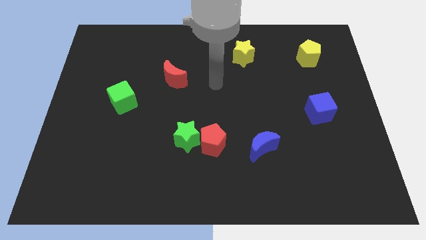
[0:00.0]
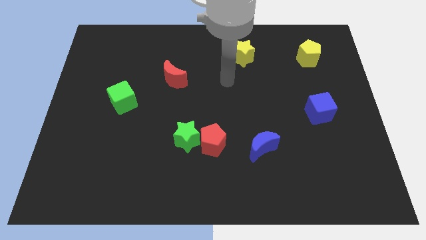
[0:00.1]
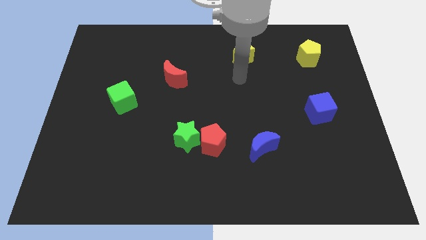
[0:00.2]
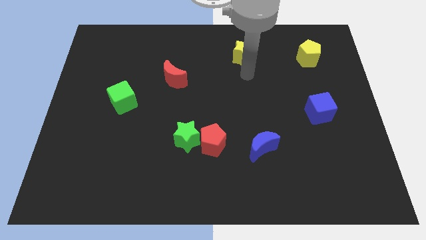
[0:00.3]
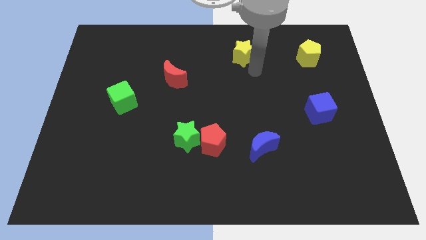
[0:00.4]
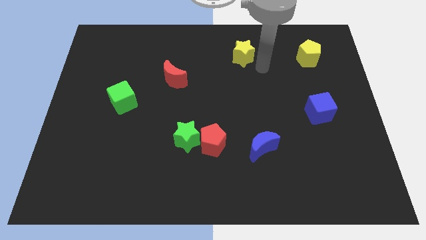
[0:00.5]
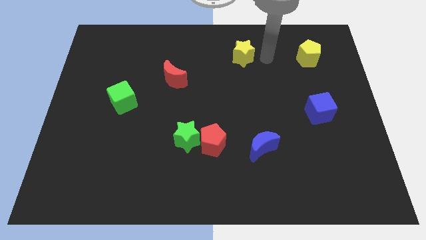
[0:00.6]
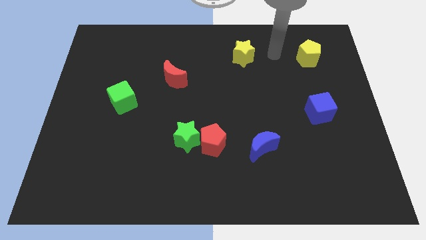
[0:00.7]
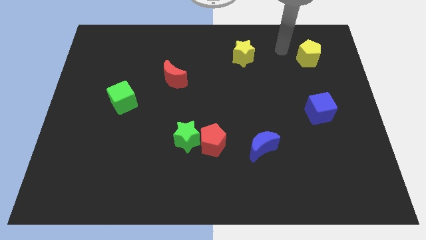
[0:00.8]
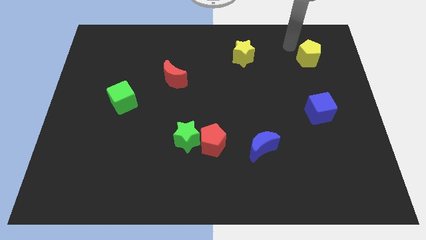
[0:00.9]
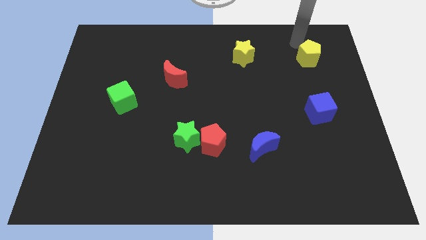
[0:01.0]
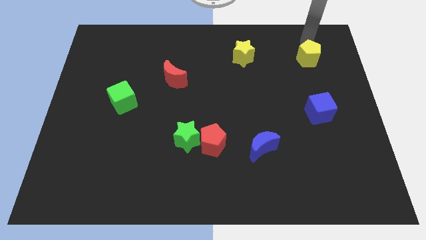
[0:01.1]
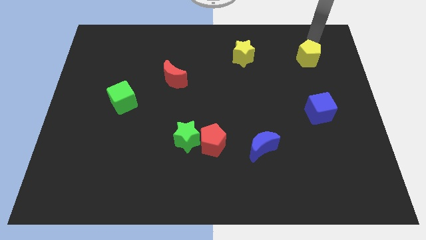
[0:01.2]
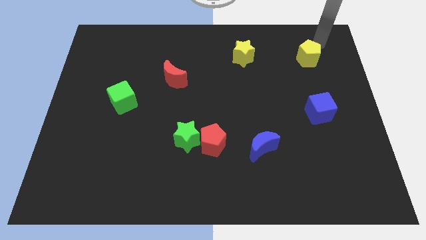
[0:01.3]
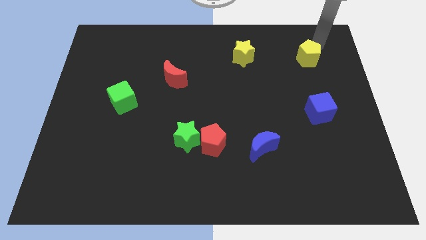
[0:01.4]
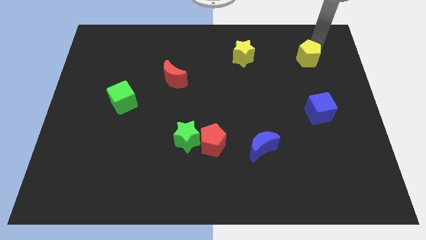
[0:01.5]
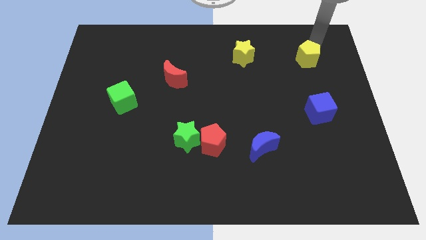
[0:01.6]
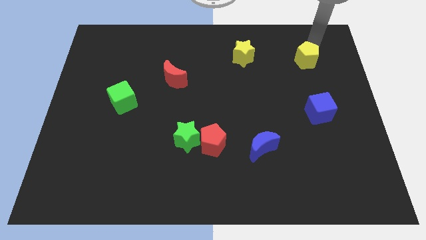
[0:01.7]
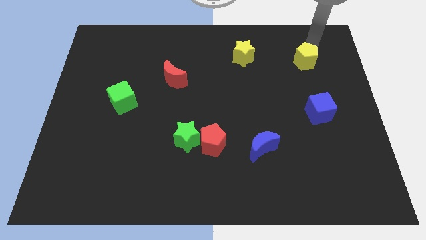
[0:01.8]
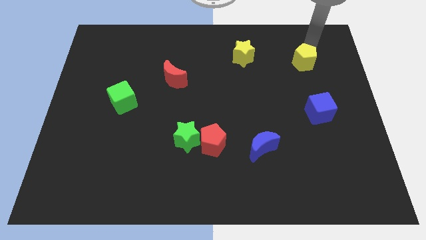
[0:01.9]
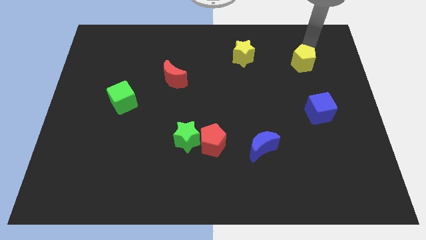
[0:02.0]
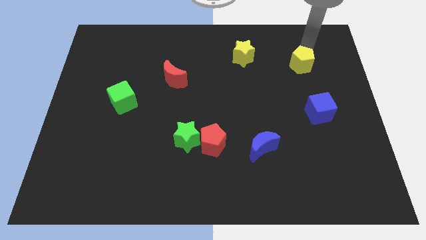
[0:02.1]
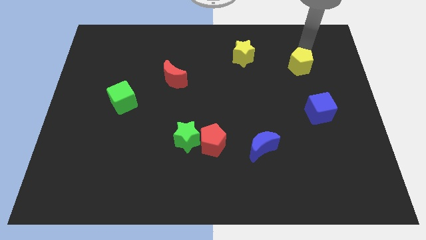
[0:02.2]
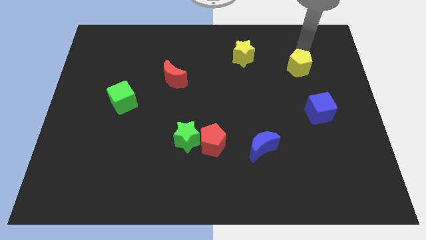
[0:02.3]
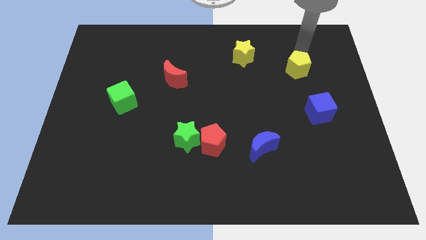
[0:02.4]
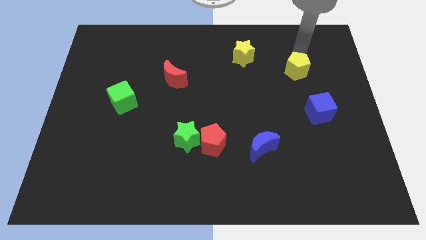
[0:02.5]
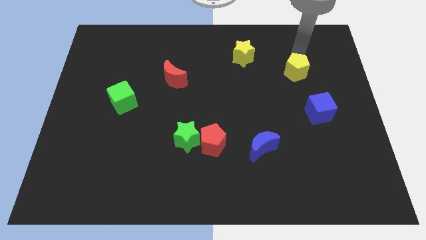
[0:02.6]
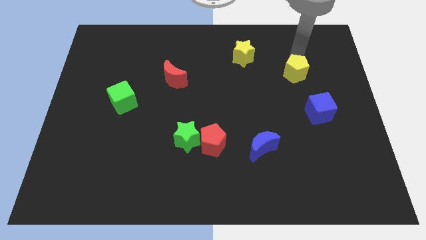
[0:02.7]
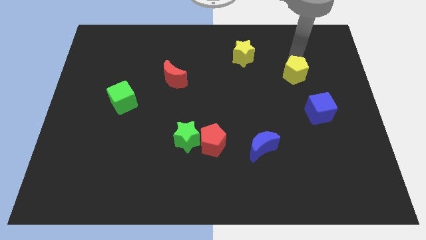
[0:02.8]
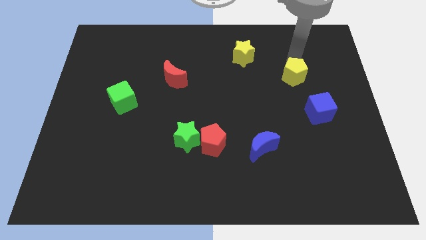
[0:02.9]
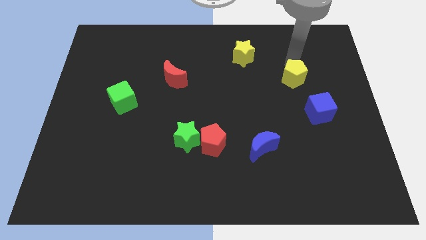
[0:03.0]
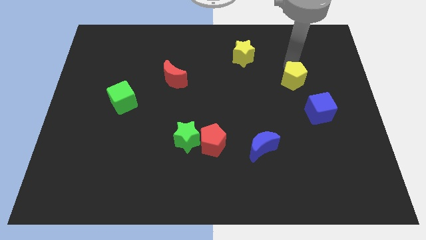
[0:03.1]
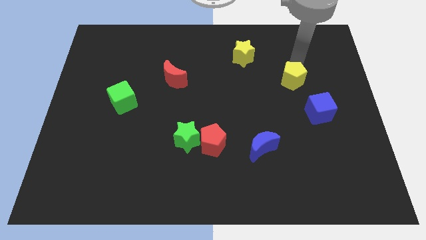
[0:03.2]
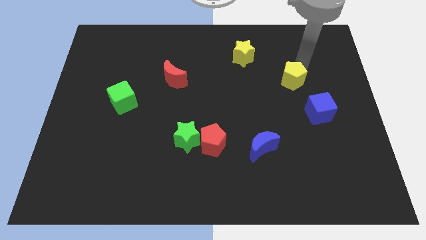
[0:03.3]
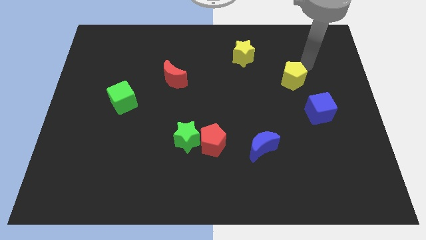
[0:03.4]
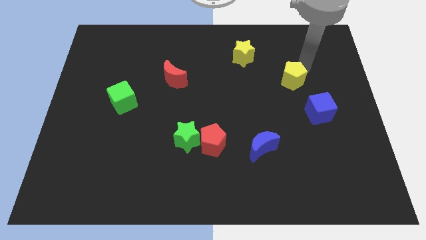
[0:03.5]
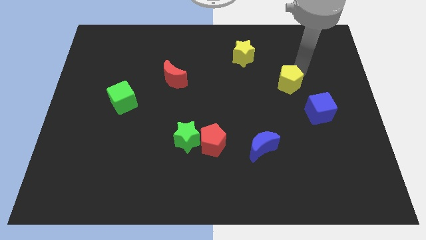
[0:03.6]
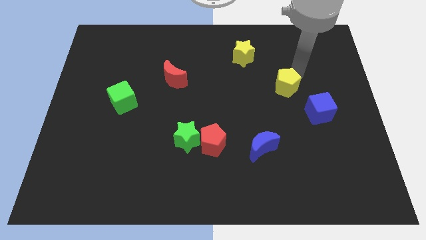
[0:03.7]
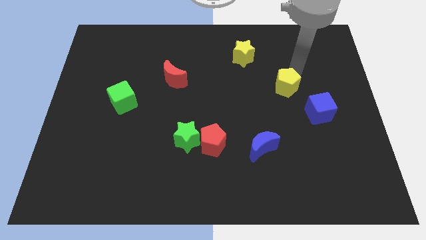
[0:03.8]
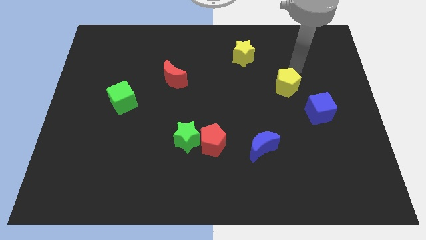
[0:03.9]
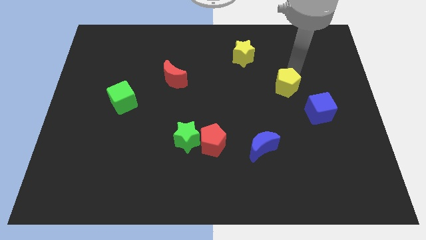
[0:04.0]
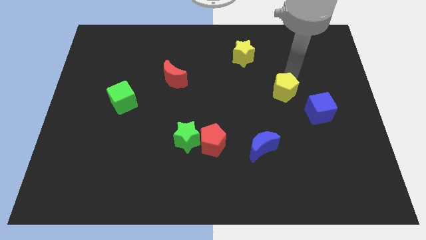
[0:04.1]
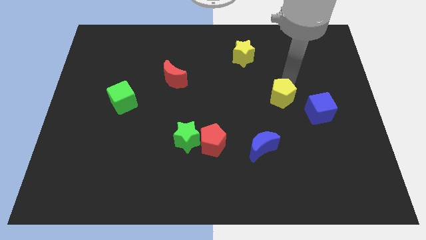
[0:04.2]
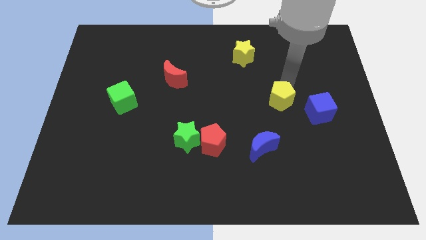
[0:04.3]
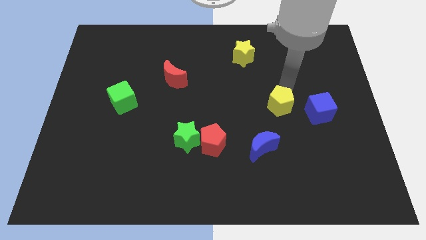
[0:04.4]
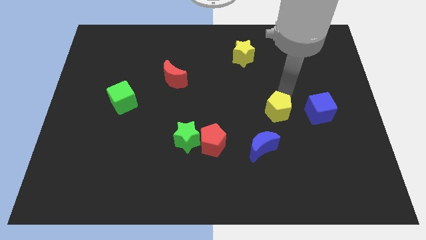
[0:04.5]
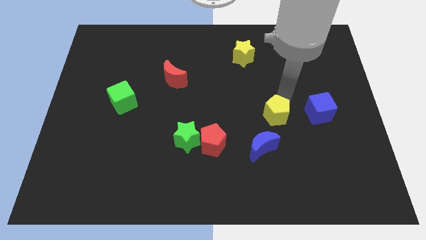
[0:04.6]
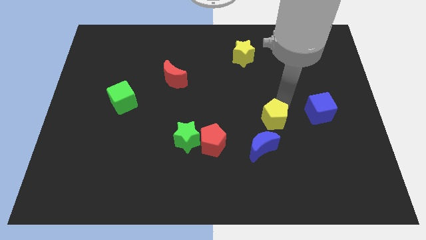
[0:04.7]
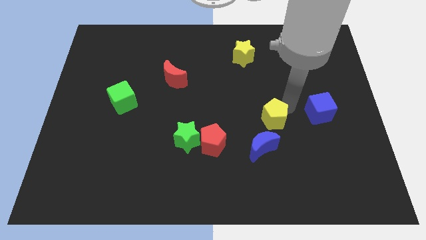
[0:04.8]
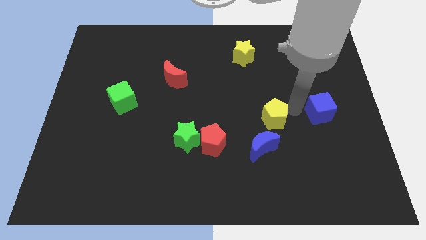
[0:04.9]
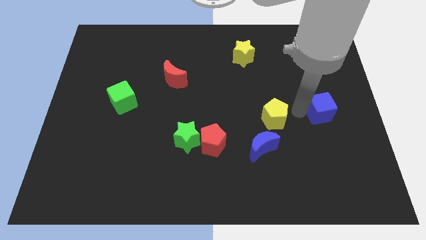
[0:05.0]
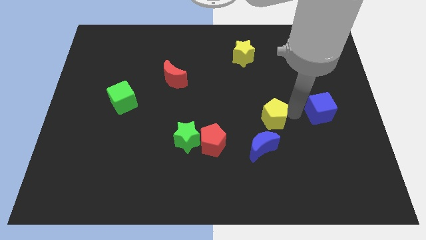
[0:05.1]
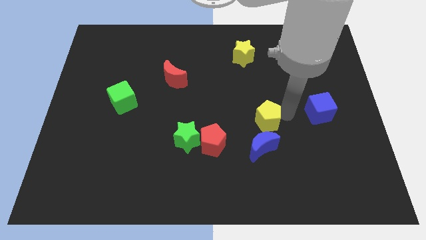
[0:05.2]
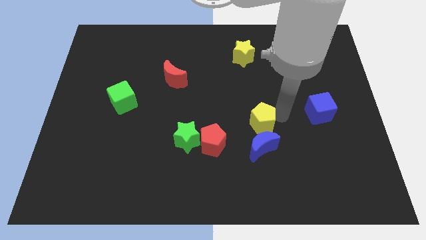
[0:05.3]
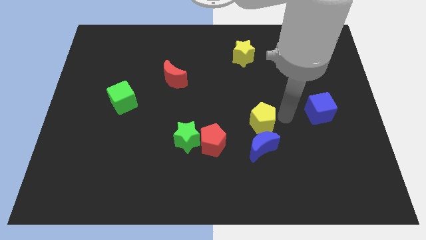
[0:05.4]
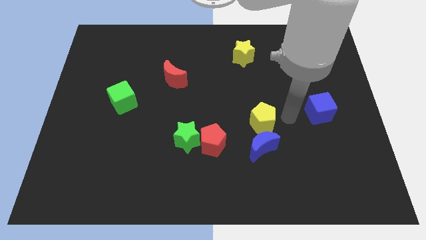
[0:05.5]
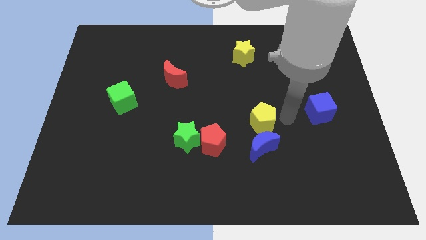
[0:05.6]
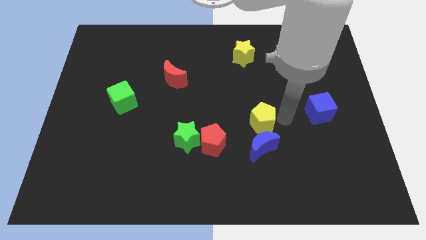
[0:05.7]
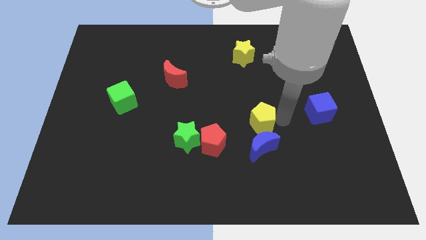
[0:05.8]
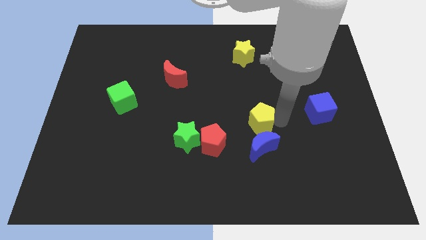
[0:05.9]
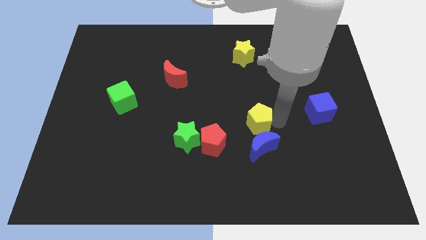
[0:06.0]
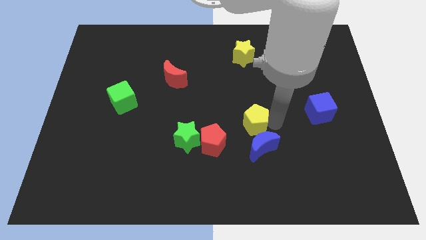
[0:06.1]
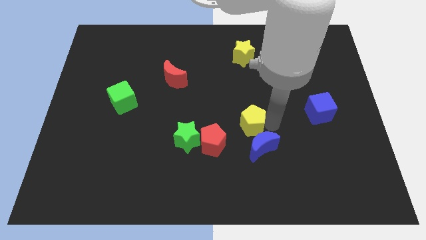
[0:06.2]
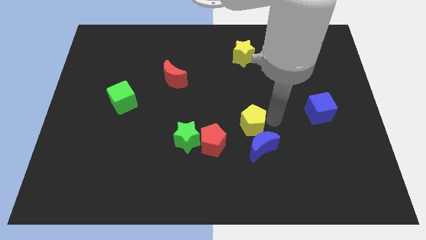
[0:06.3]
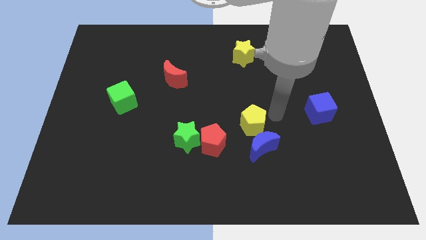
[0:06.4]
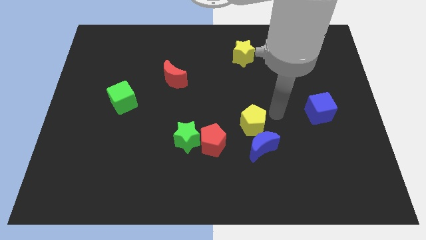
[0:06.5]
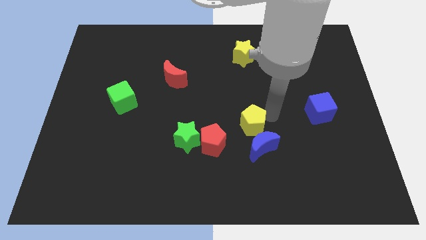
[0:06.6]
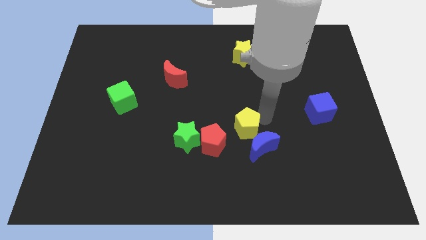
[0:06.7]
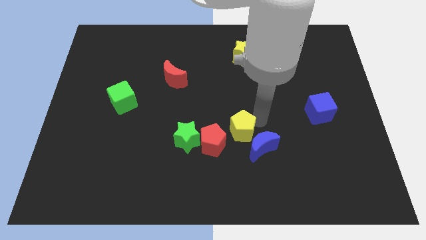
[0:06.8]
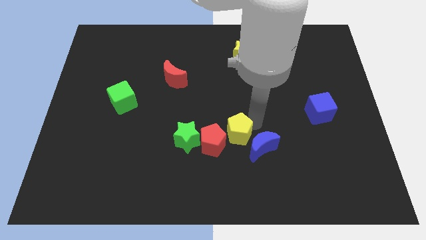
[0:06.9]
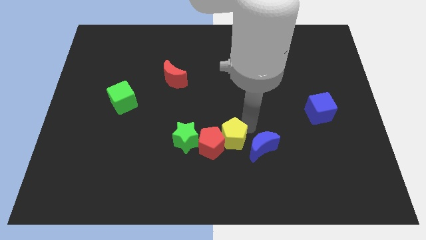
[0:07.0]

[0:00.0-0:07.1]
slide the yellow pentagon close to the red pentagon

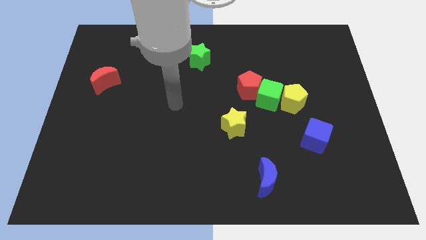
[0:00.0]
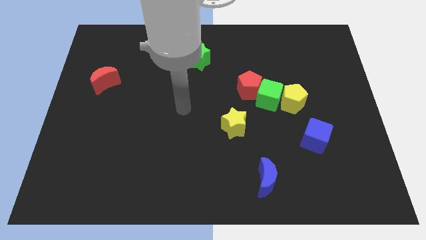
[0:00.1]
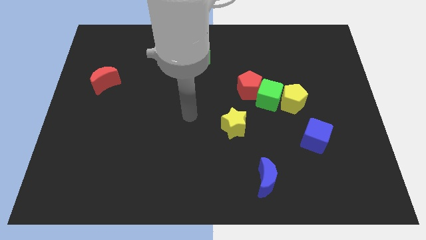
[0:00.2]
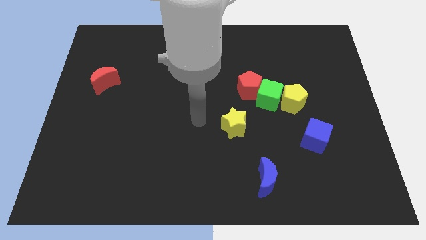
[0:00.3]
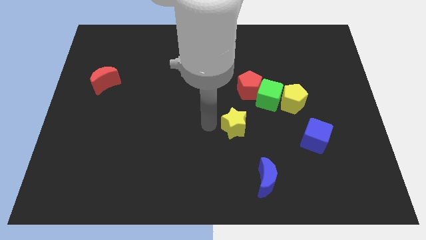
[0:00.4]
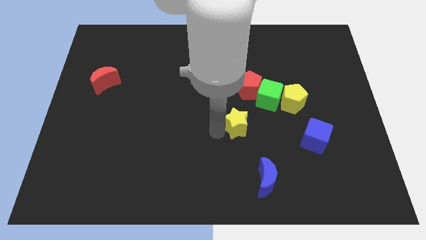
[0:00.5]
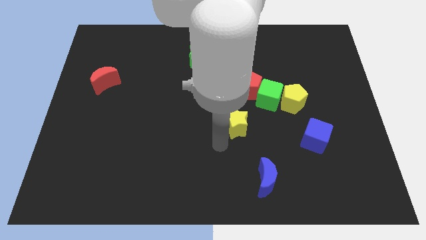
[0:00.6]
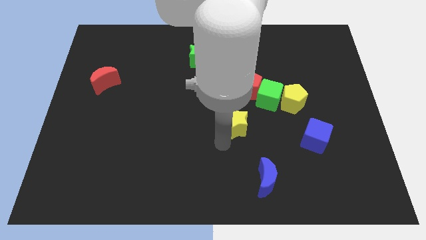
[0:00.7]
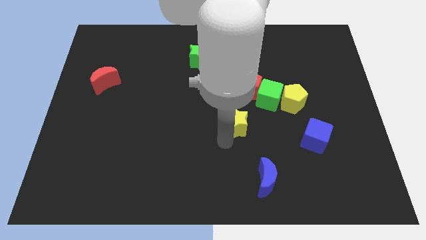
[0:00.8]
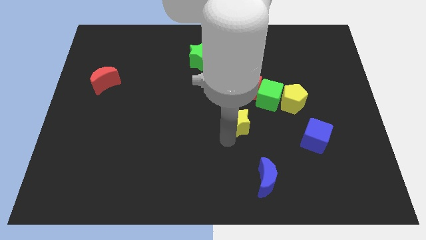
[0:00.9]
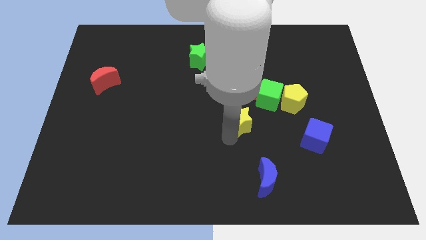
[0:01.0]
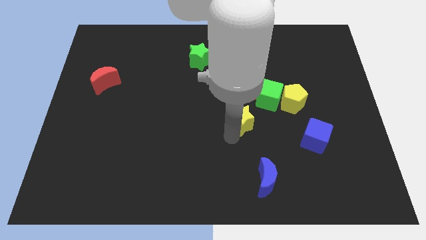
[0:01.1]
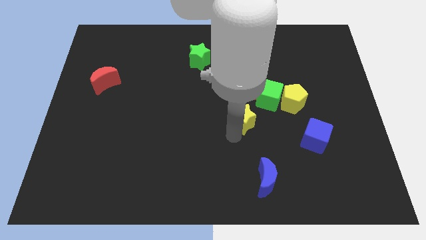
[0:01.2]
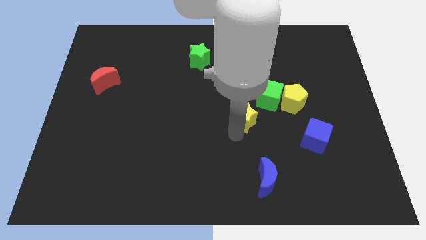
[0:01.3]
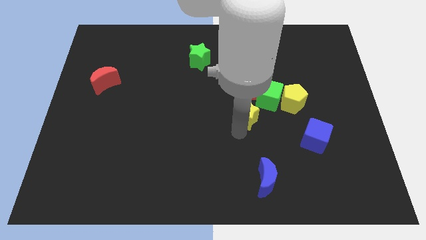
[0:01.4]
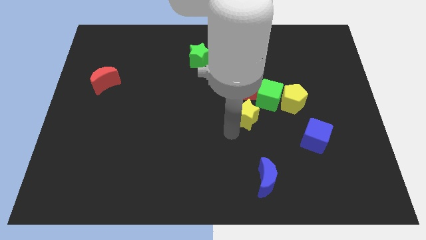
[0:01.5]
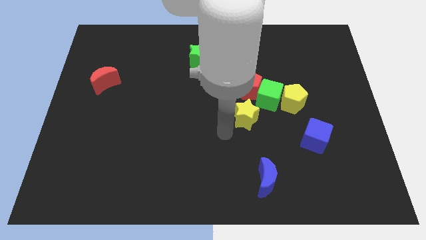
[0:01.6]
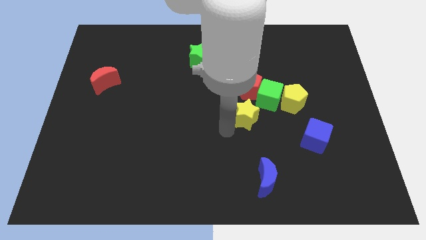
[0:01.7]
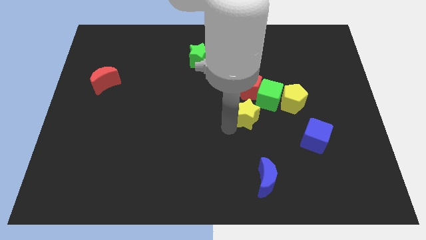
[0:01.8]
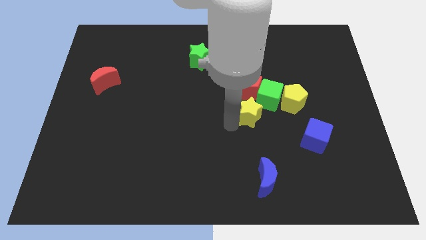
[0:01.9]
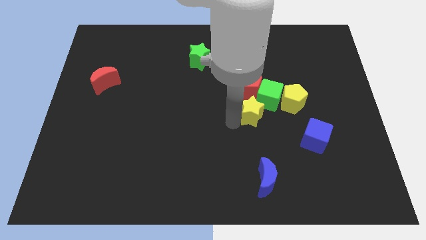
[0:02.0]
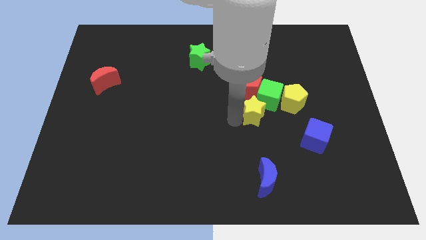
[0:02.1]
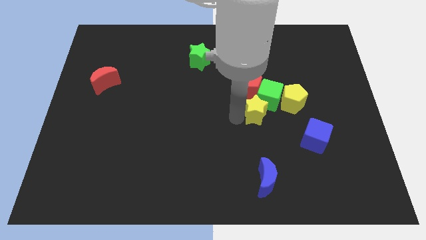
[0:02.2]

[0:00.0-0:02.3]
slide the yellow star to the green cube
